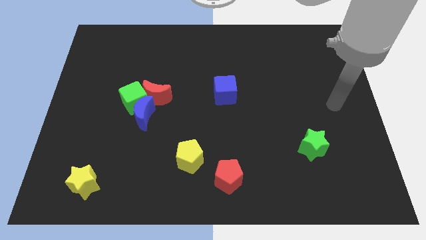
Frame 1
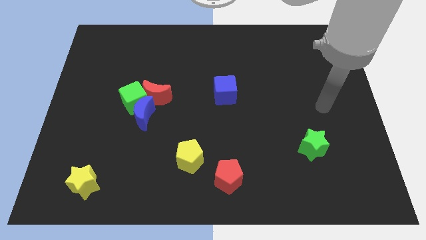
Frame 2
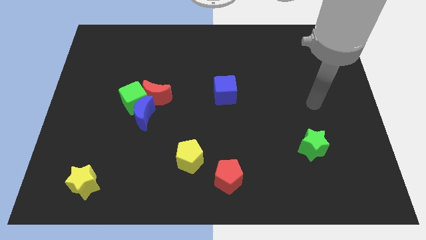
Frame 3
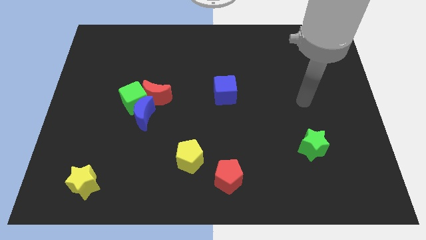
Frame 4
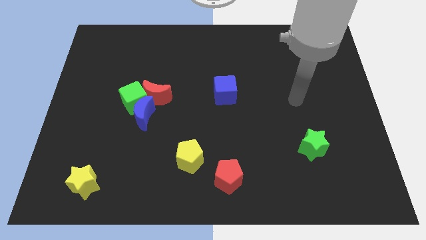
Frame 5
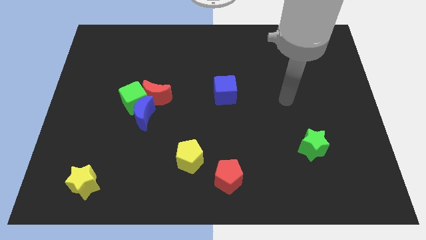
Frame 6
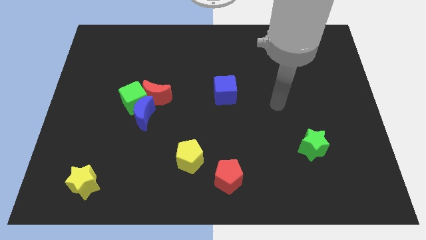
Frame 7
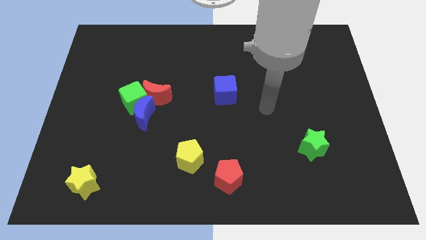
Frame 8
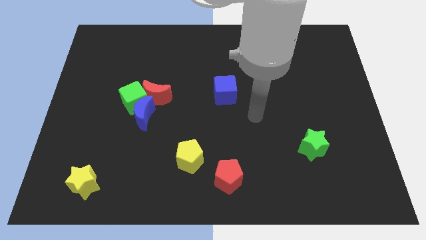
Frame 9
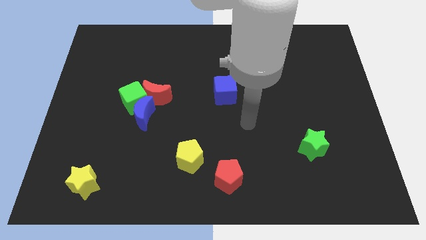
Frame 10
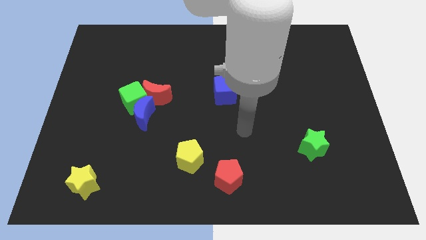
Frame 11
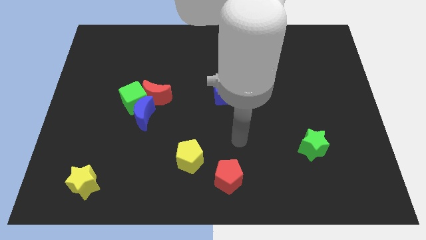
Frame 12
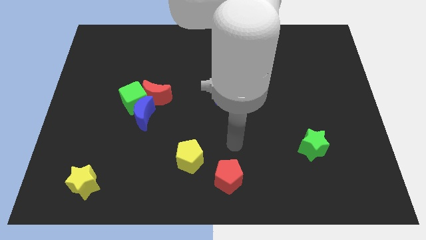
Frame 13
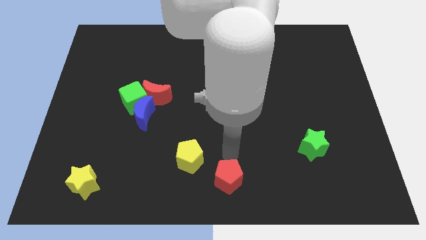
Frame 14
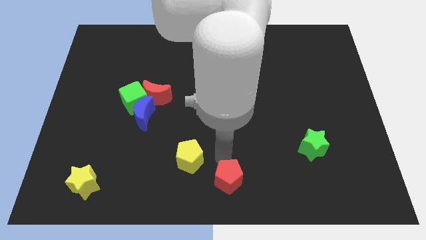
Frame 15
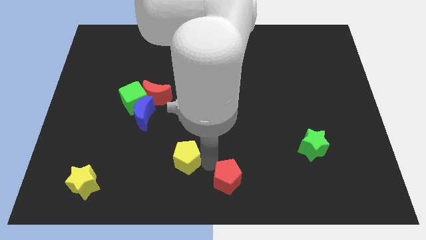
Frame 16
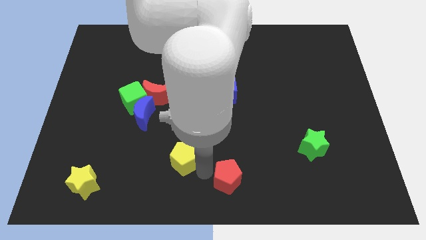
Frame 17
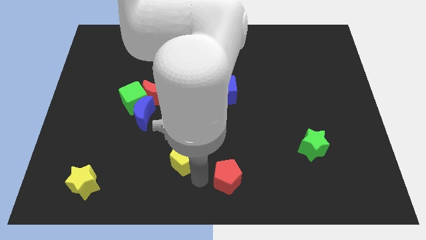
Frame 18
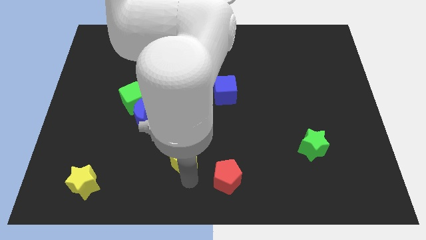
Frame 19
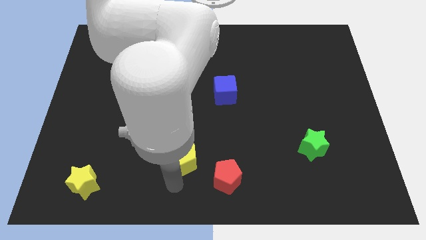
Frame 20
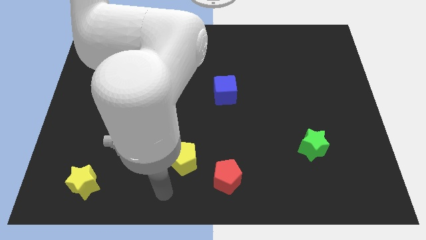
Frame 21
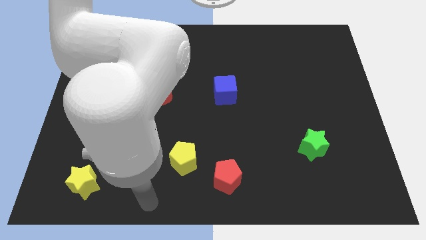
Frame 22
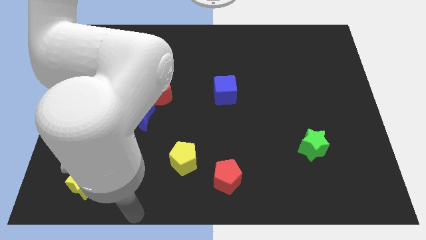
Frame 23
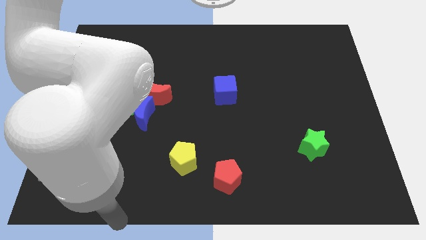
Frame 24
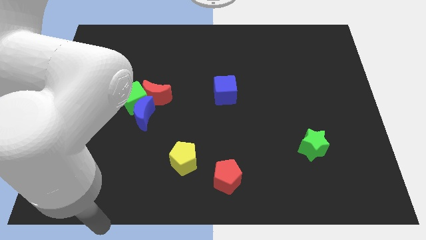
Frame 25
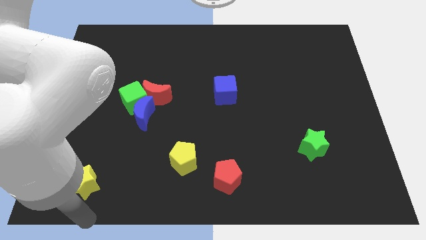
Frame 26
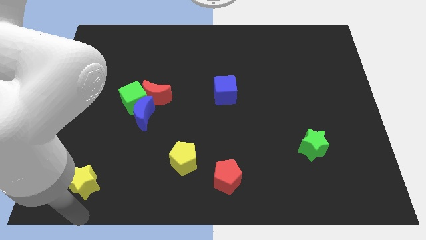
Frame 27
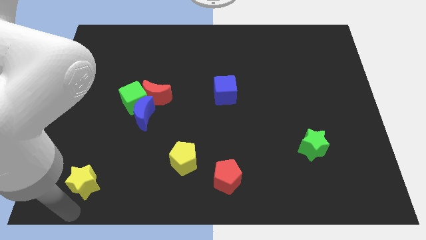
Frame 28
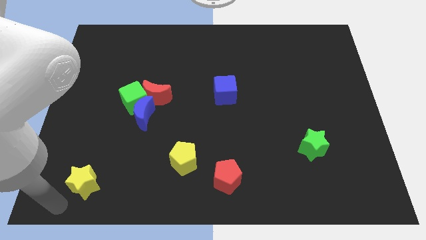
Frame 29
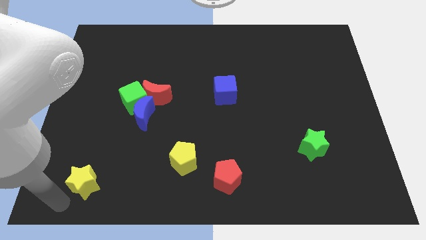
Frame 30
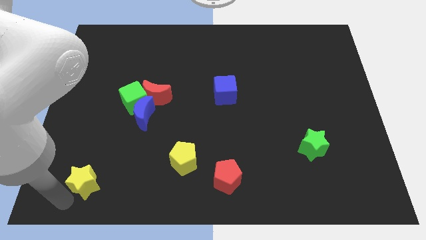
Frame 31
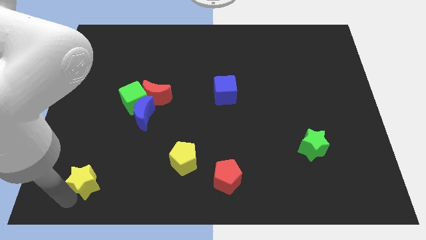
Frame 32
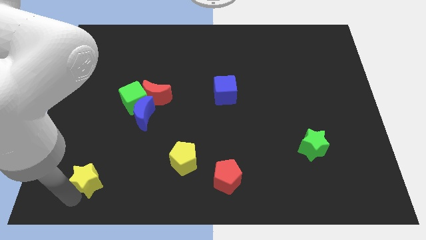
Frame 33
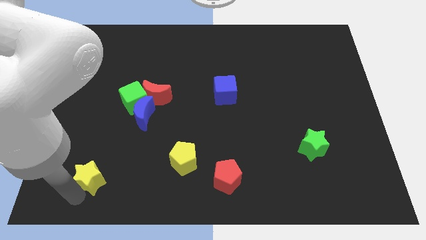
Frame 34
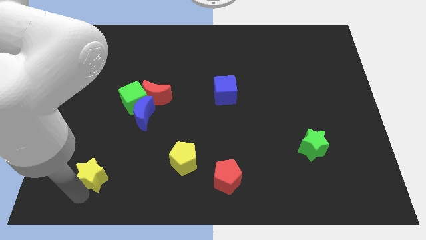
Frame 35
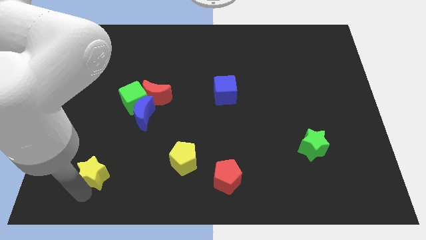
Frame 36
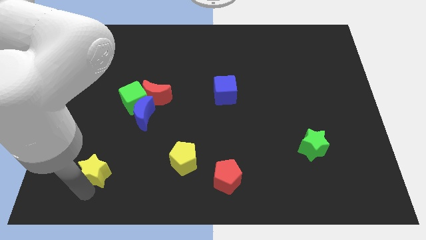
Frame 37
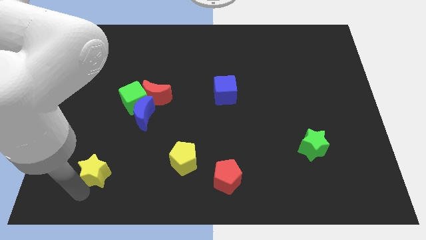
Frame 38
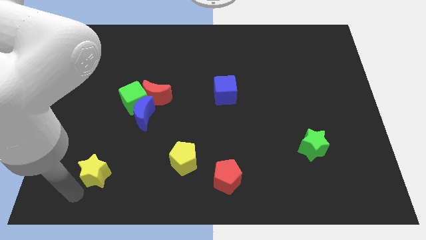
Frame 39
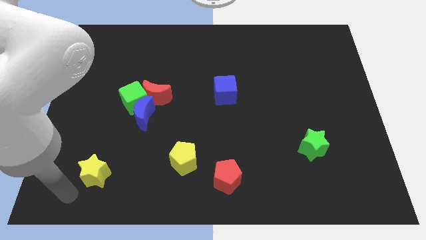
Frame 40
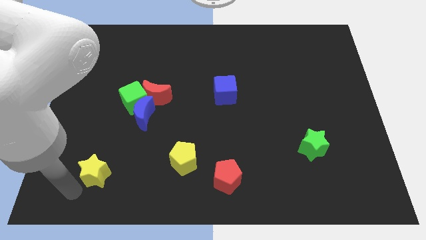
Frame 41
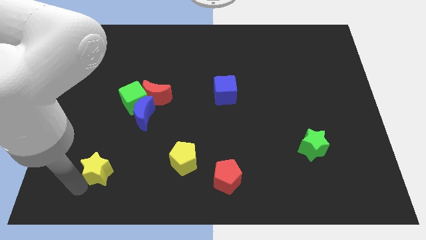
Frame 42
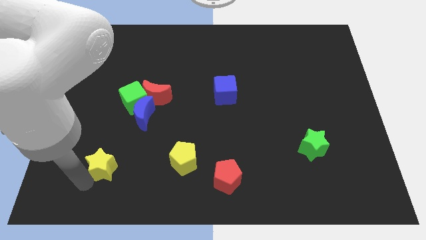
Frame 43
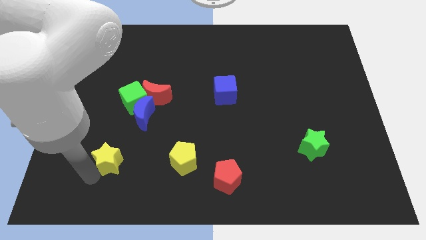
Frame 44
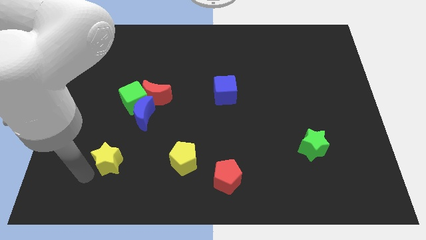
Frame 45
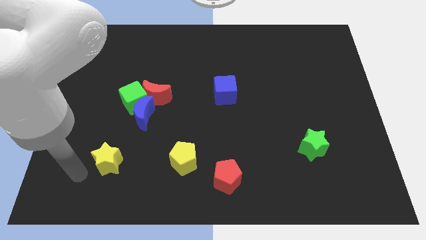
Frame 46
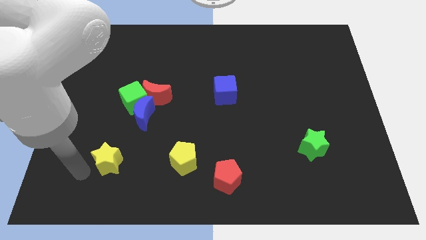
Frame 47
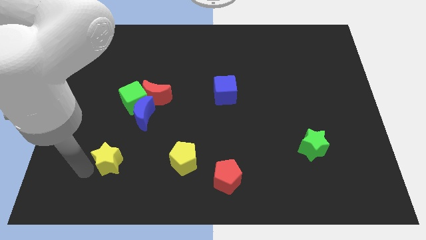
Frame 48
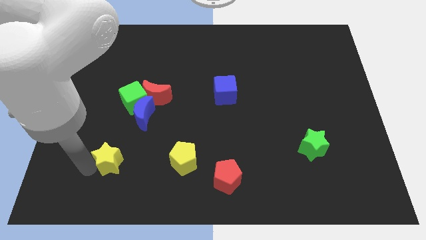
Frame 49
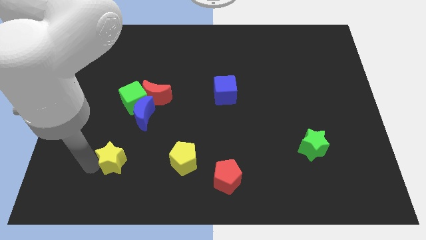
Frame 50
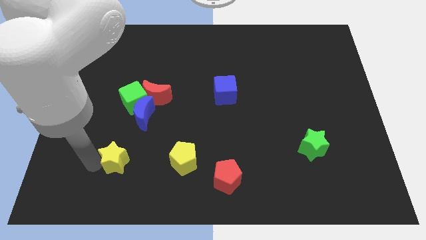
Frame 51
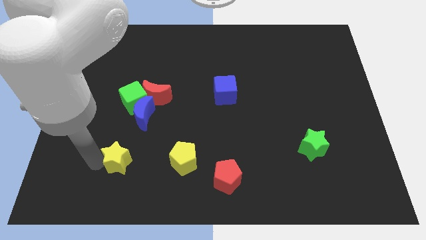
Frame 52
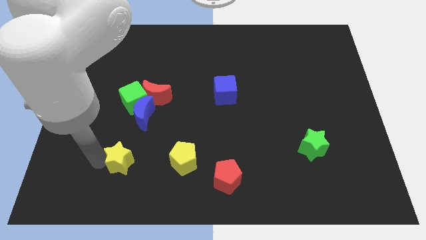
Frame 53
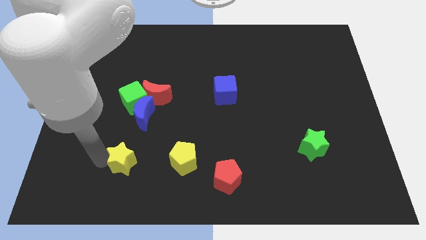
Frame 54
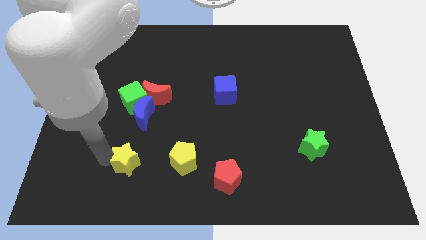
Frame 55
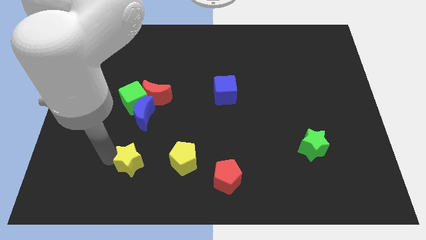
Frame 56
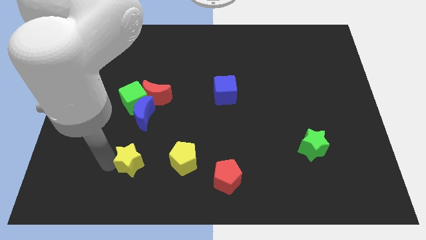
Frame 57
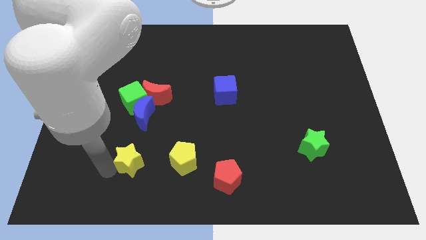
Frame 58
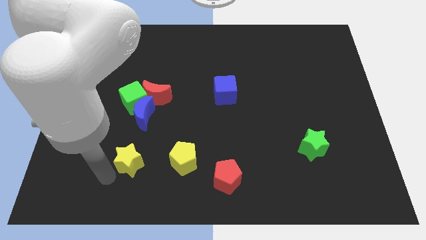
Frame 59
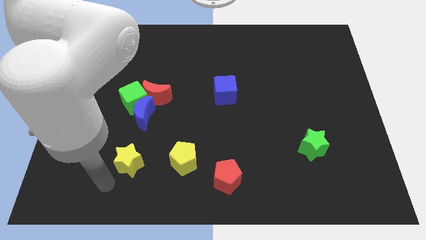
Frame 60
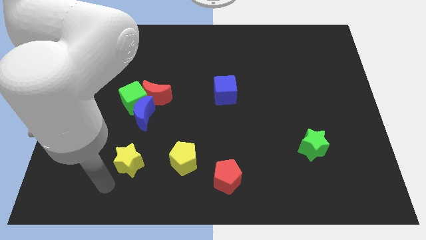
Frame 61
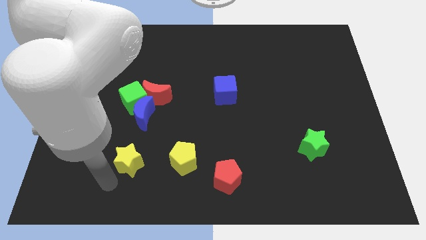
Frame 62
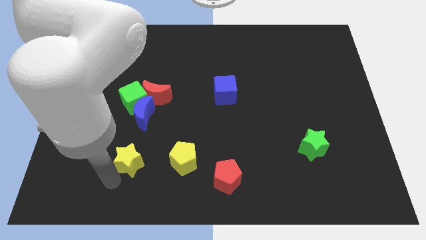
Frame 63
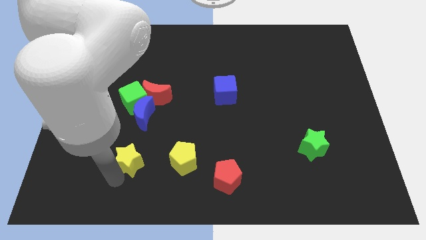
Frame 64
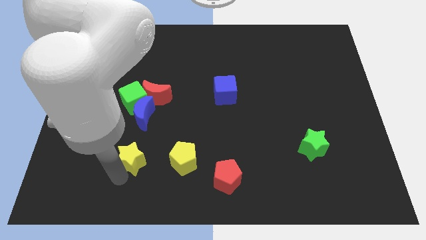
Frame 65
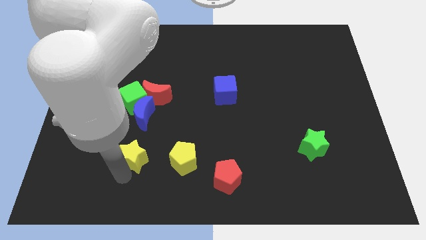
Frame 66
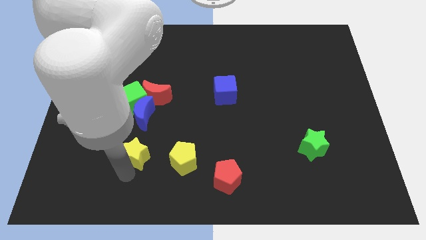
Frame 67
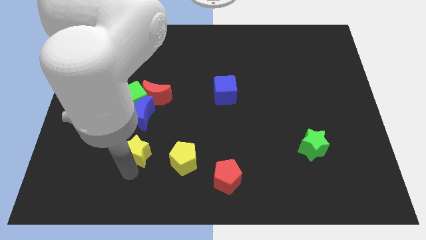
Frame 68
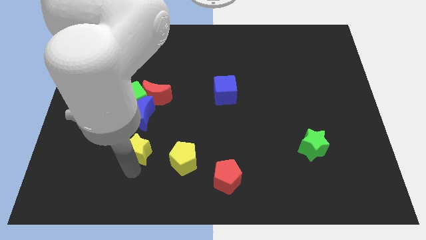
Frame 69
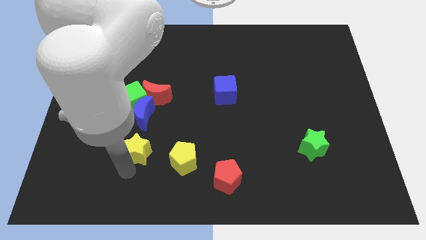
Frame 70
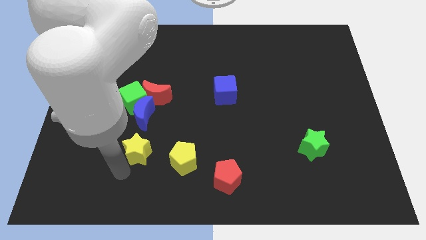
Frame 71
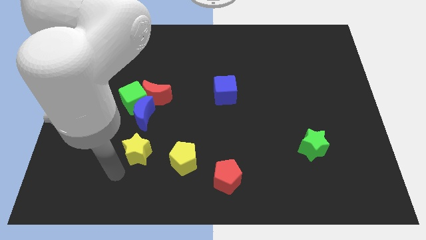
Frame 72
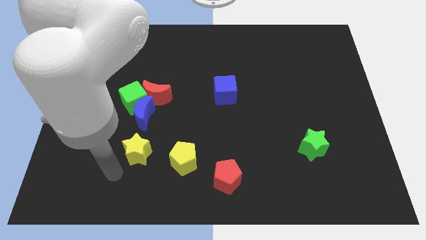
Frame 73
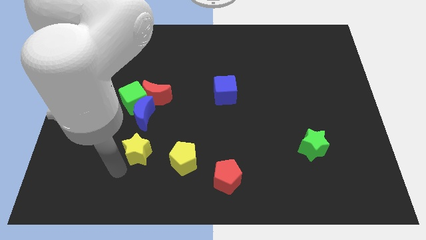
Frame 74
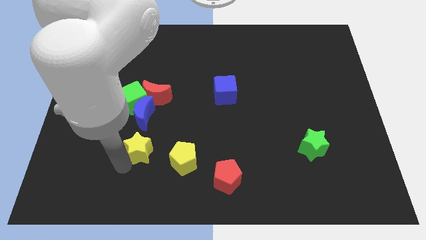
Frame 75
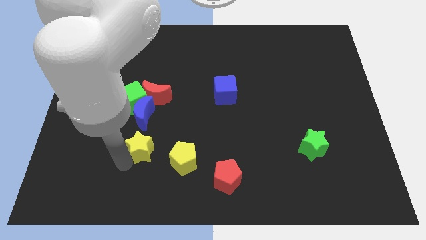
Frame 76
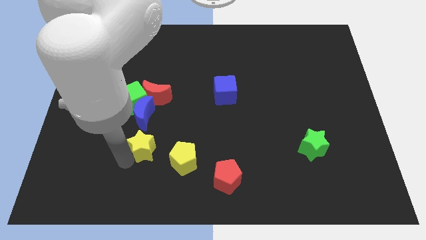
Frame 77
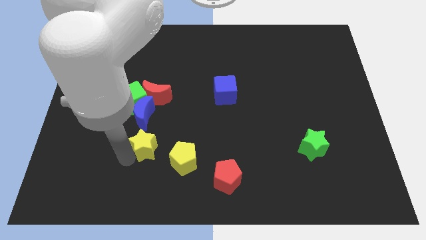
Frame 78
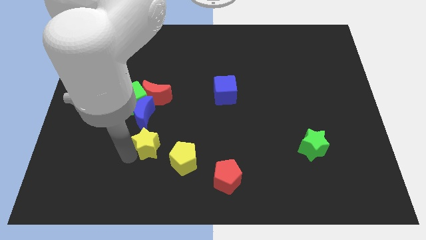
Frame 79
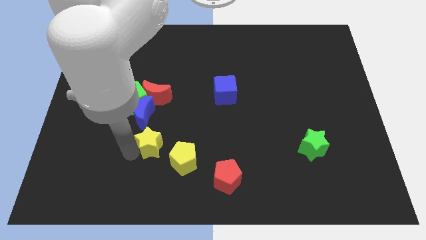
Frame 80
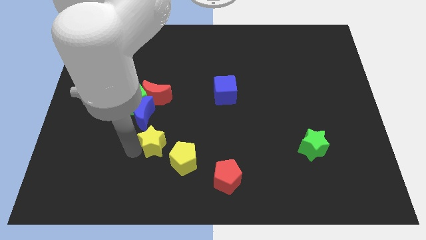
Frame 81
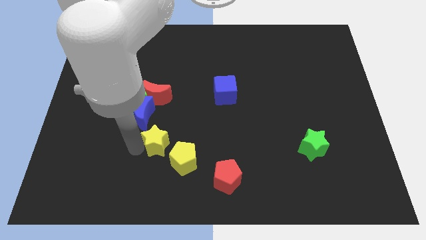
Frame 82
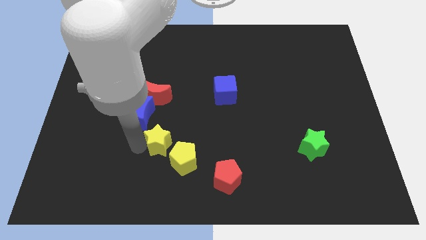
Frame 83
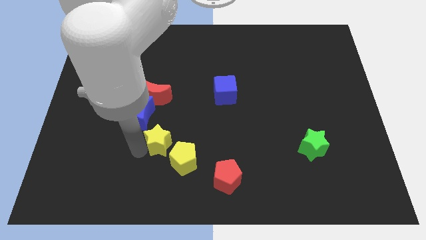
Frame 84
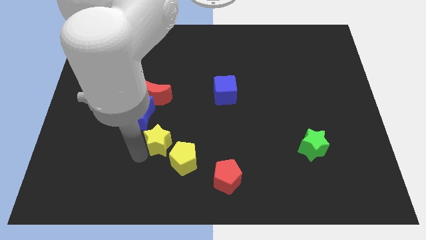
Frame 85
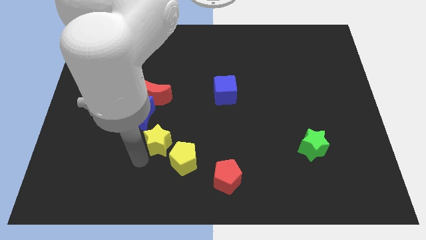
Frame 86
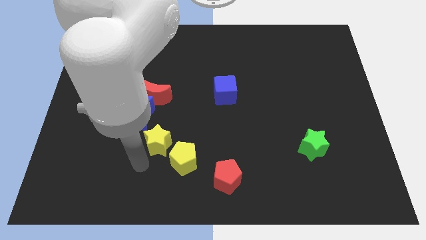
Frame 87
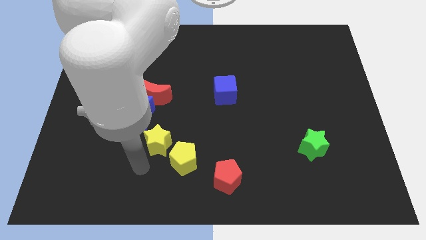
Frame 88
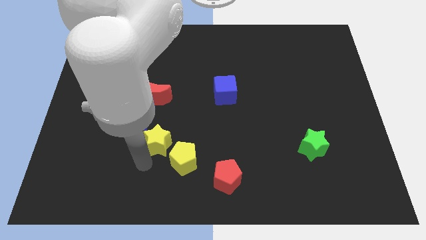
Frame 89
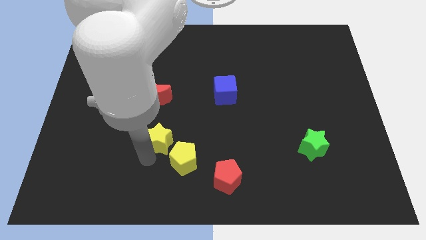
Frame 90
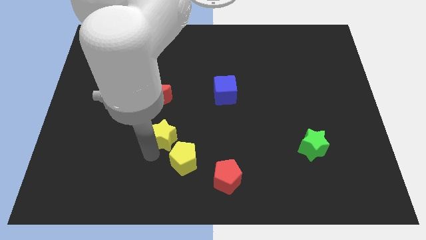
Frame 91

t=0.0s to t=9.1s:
move the yellow star to the top side of the yellow pentagon
